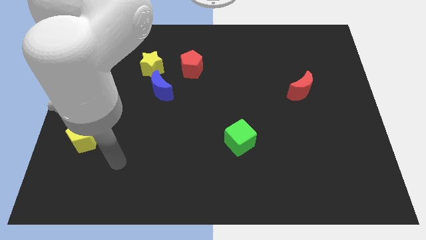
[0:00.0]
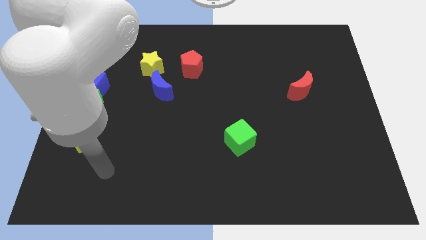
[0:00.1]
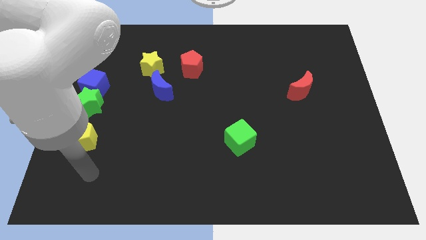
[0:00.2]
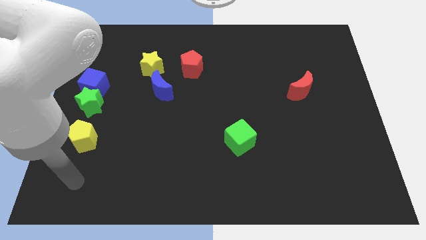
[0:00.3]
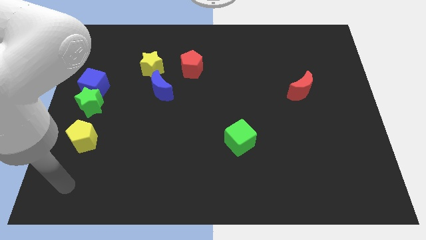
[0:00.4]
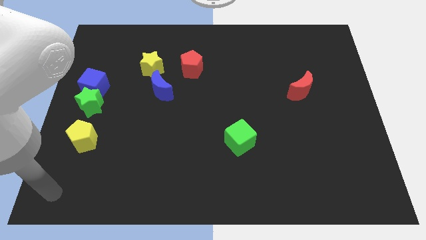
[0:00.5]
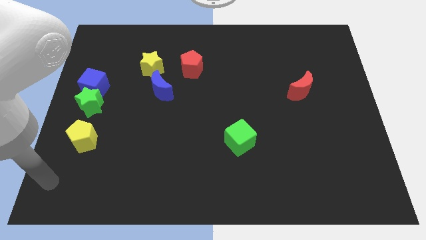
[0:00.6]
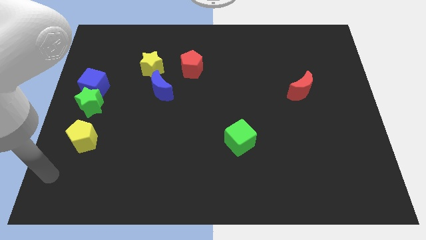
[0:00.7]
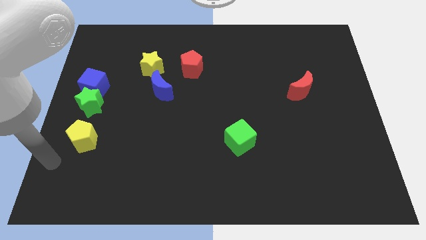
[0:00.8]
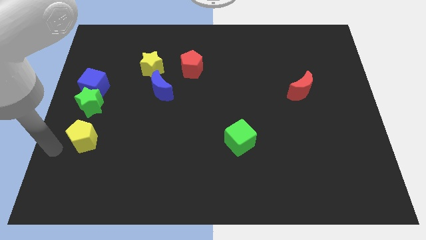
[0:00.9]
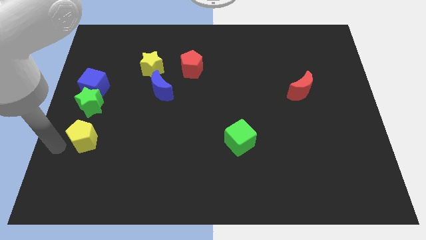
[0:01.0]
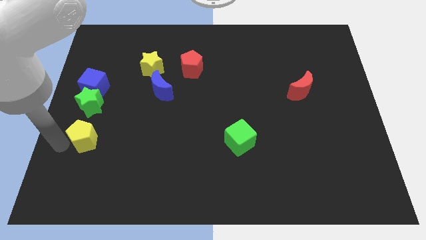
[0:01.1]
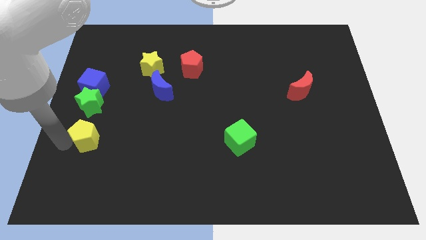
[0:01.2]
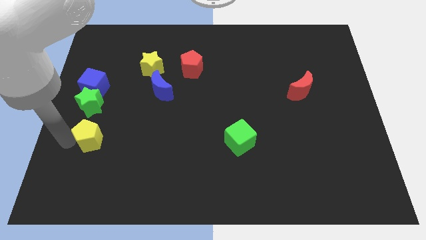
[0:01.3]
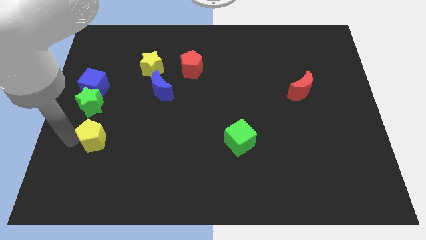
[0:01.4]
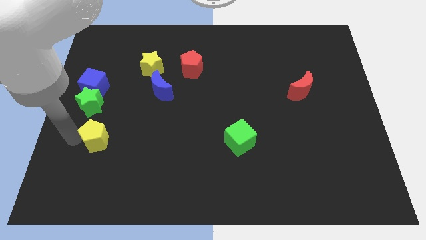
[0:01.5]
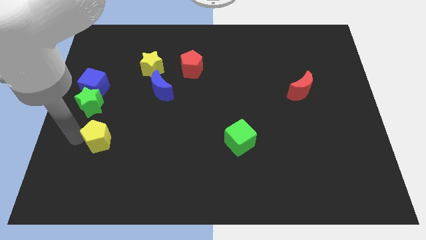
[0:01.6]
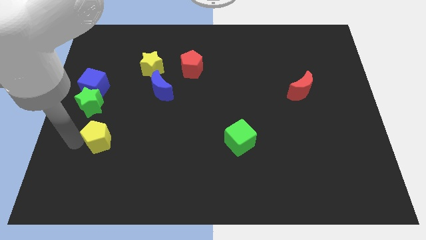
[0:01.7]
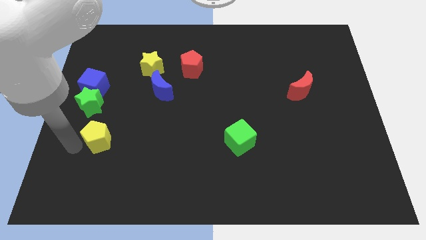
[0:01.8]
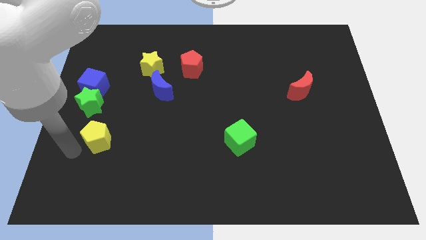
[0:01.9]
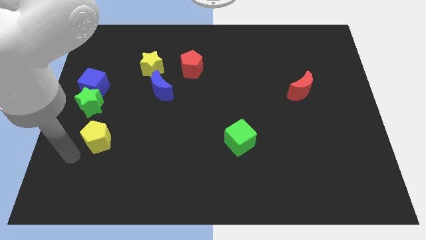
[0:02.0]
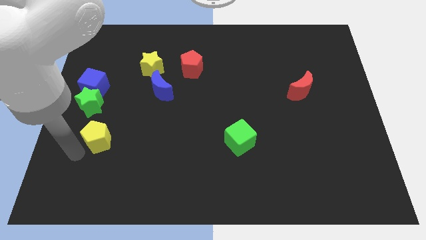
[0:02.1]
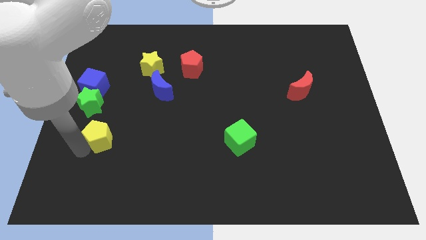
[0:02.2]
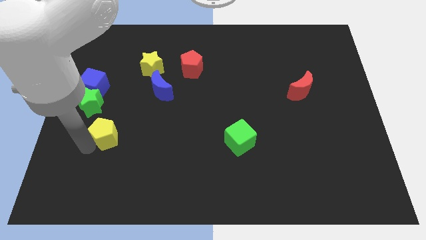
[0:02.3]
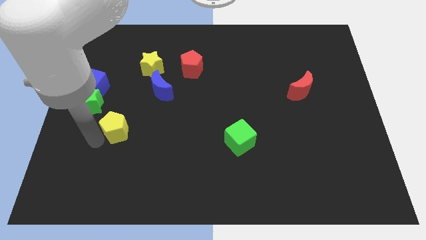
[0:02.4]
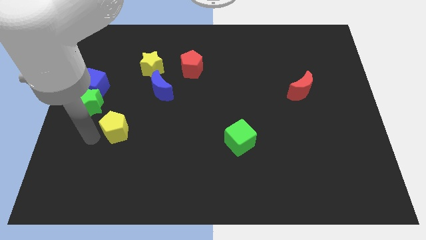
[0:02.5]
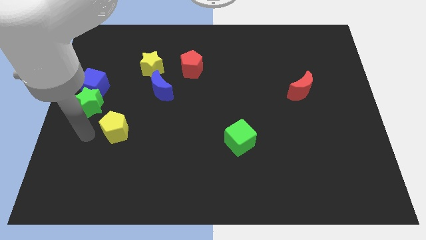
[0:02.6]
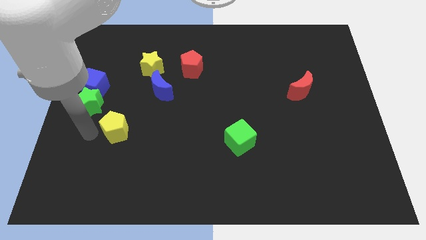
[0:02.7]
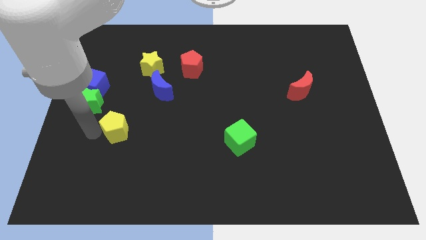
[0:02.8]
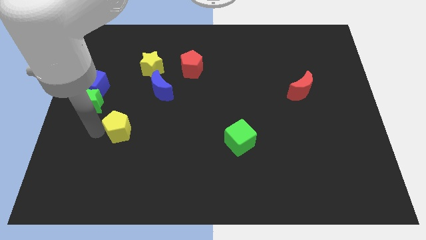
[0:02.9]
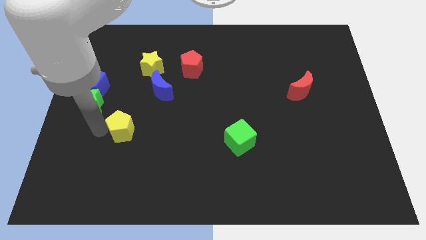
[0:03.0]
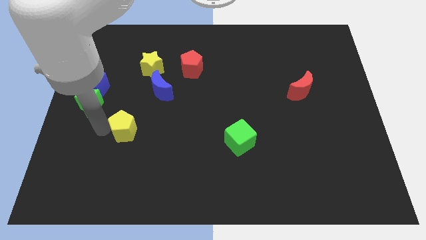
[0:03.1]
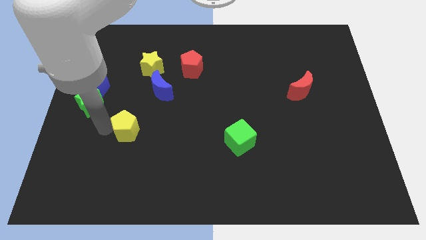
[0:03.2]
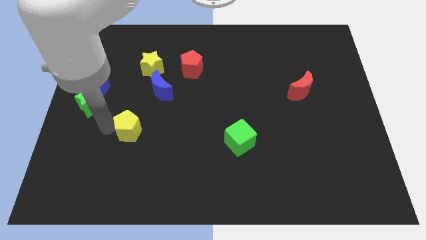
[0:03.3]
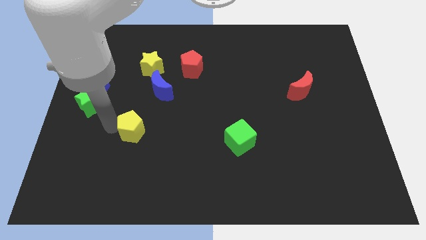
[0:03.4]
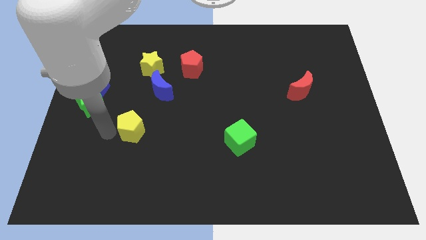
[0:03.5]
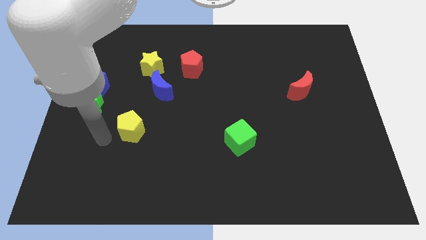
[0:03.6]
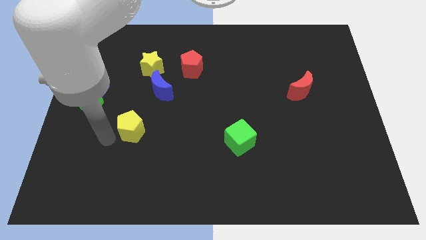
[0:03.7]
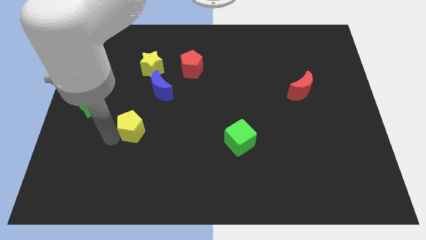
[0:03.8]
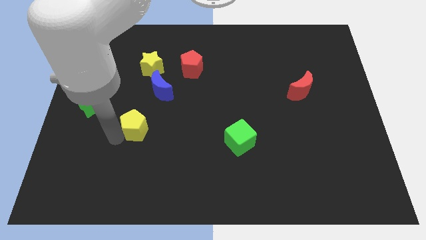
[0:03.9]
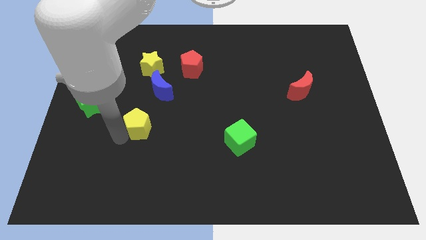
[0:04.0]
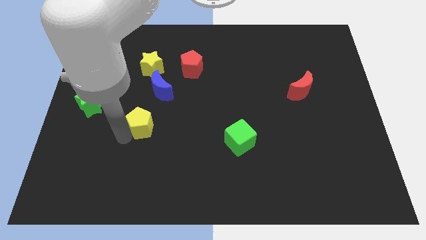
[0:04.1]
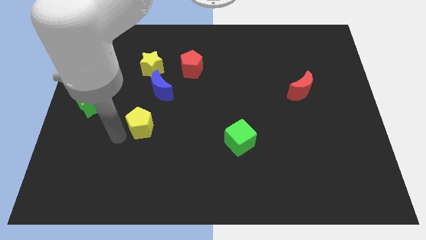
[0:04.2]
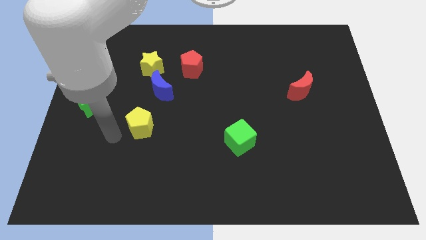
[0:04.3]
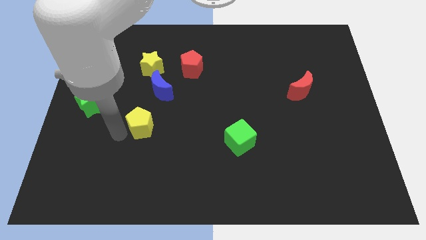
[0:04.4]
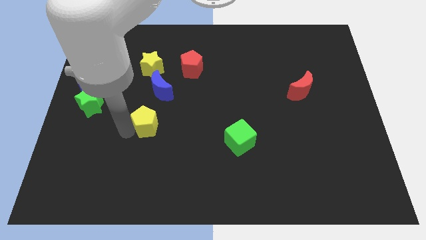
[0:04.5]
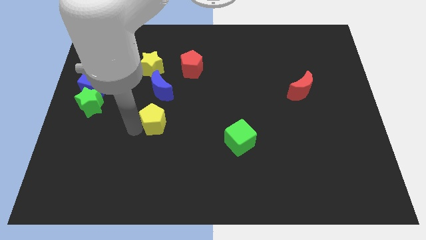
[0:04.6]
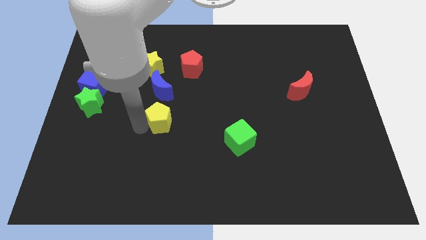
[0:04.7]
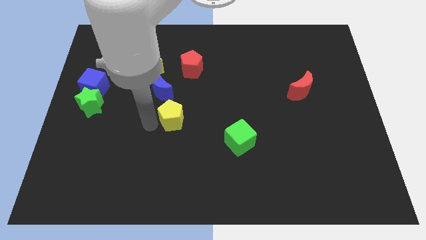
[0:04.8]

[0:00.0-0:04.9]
put the yellow pentagon to the middle of the board

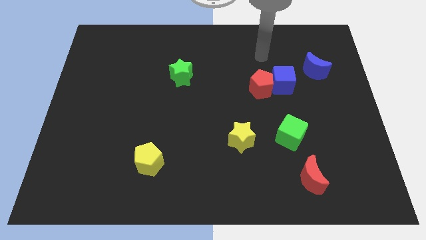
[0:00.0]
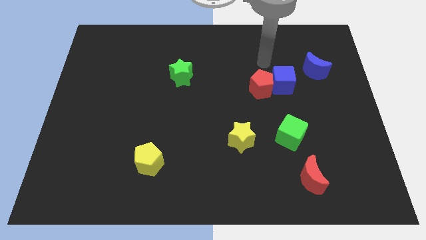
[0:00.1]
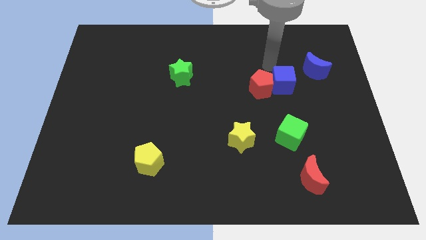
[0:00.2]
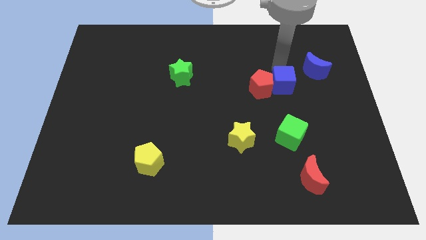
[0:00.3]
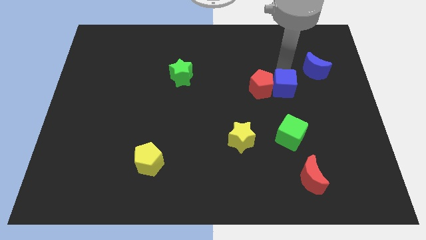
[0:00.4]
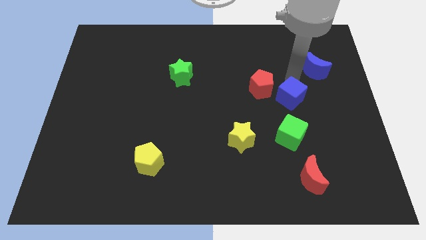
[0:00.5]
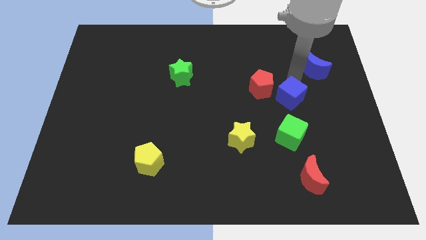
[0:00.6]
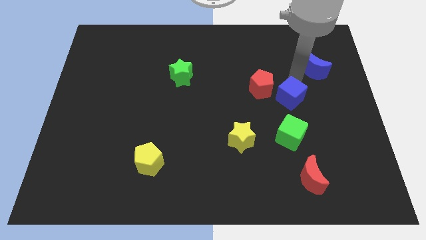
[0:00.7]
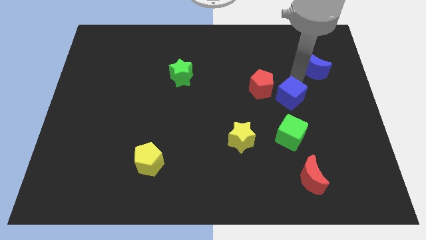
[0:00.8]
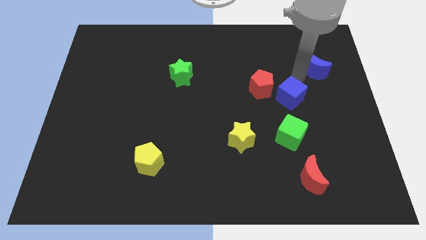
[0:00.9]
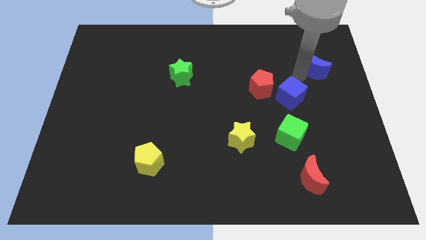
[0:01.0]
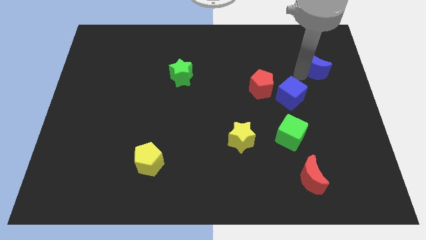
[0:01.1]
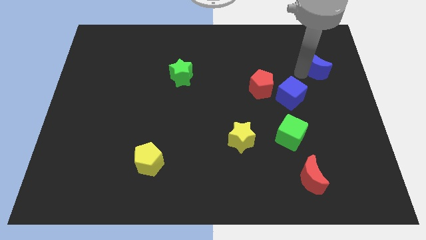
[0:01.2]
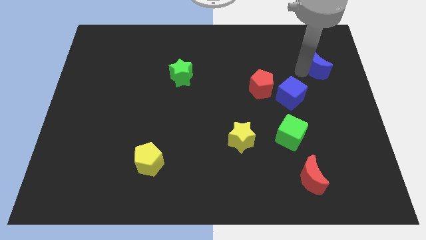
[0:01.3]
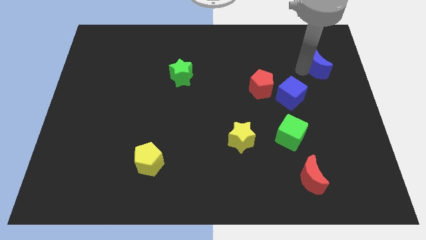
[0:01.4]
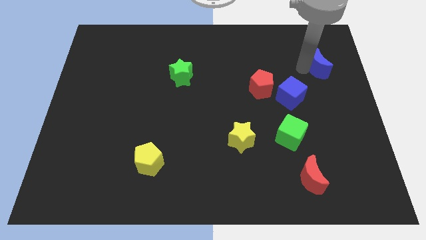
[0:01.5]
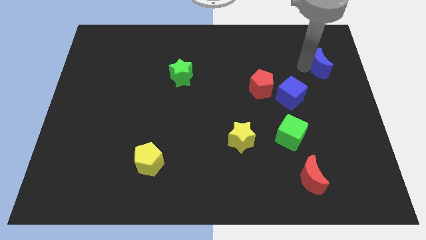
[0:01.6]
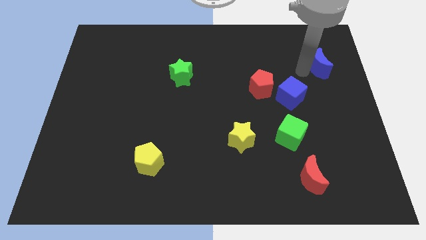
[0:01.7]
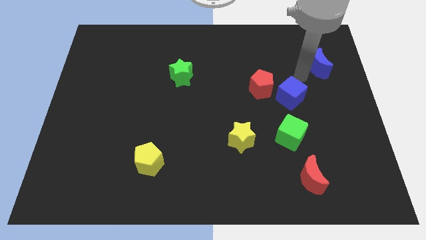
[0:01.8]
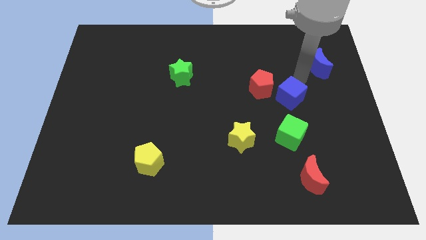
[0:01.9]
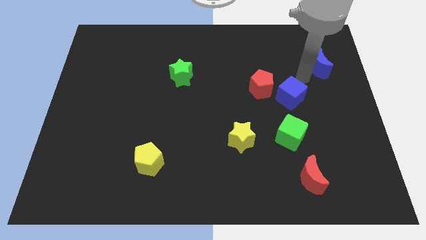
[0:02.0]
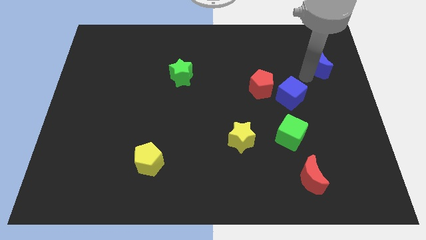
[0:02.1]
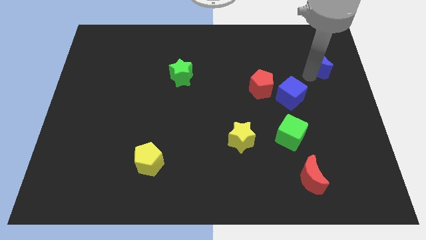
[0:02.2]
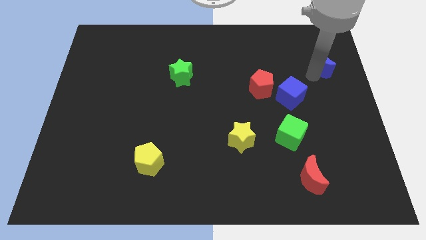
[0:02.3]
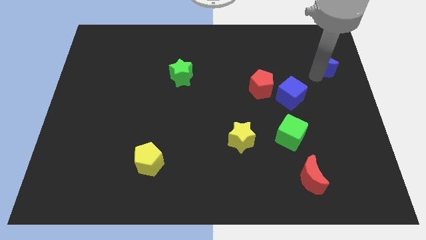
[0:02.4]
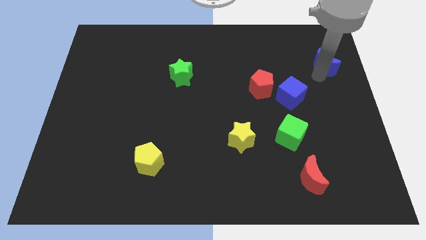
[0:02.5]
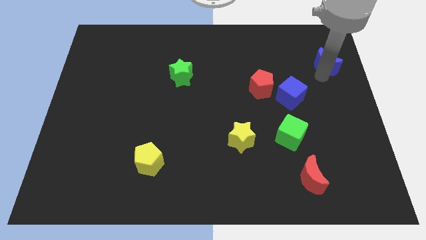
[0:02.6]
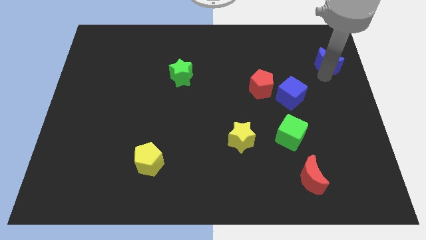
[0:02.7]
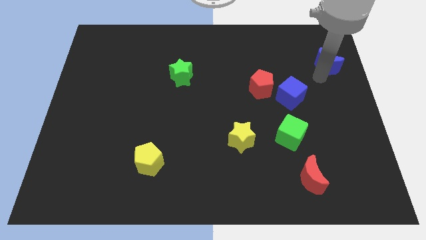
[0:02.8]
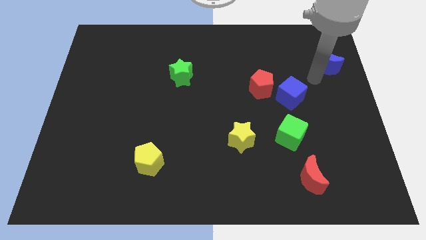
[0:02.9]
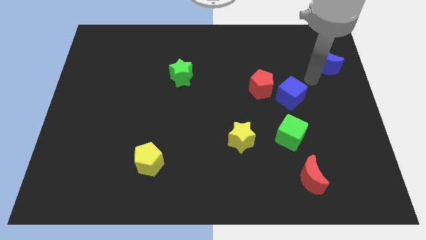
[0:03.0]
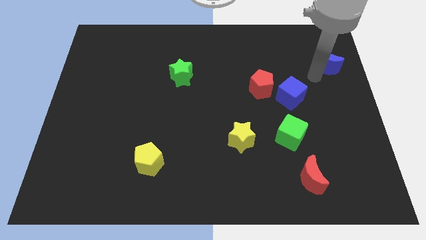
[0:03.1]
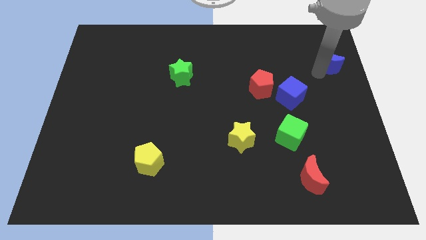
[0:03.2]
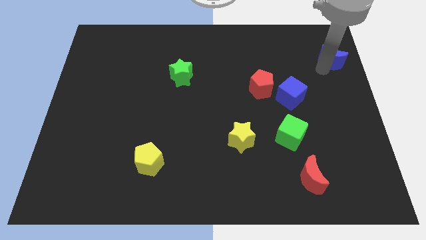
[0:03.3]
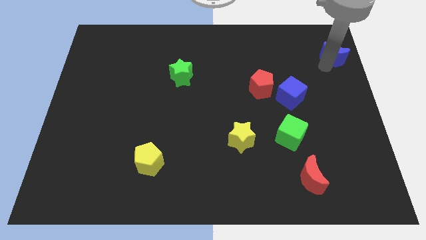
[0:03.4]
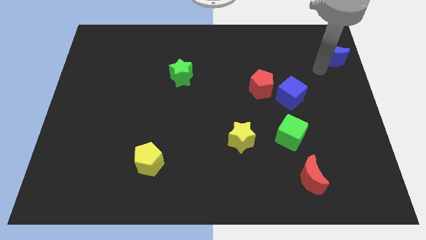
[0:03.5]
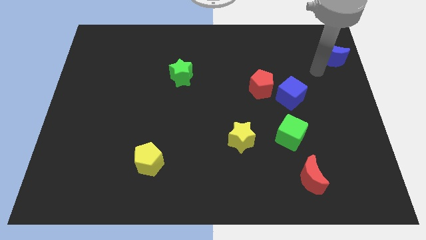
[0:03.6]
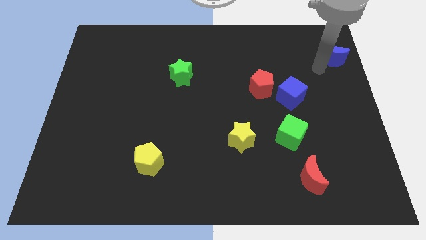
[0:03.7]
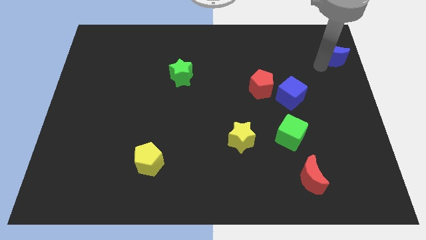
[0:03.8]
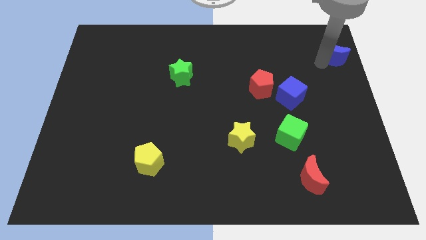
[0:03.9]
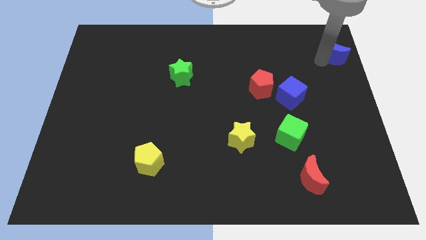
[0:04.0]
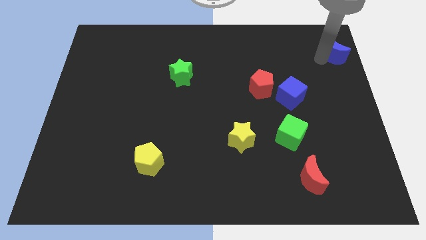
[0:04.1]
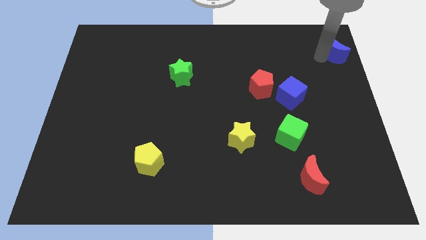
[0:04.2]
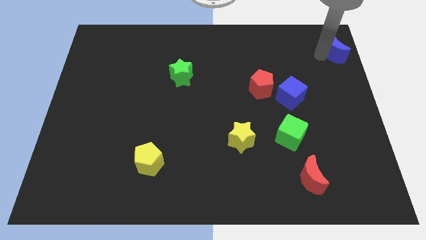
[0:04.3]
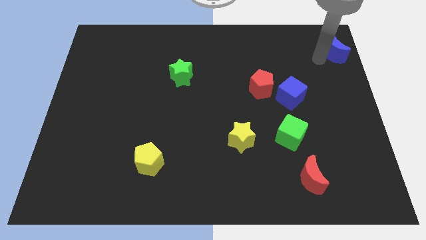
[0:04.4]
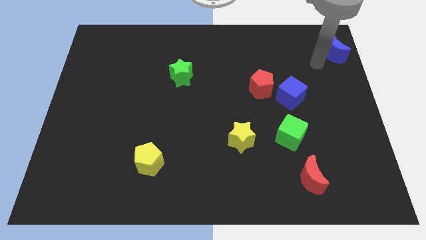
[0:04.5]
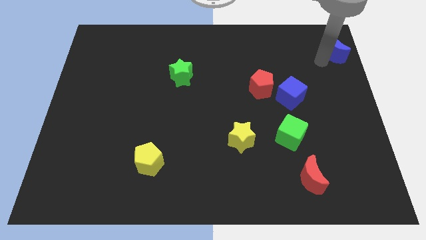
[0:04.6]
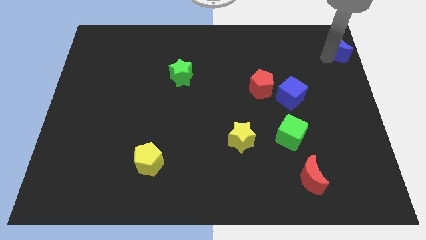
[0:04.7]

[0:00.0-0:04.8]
put the blue moon to the top right corner
